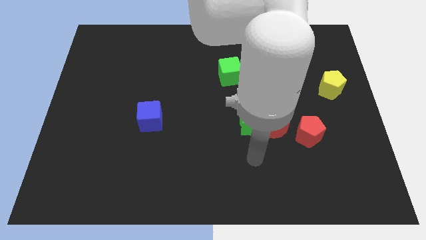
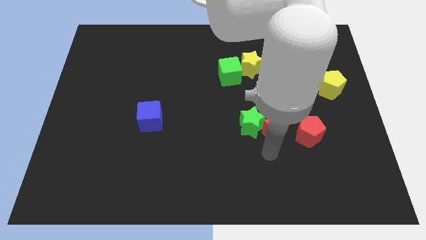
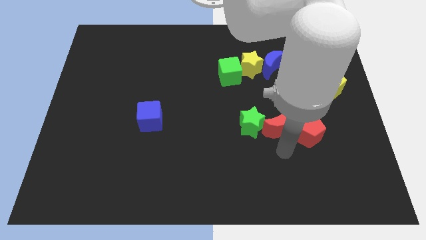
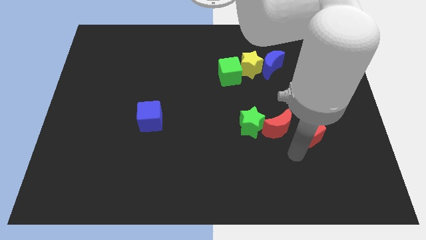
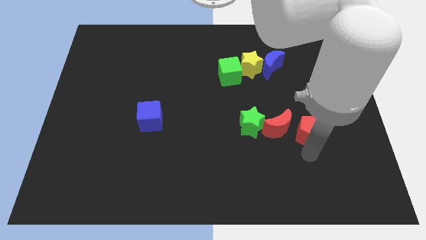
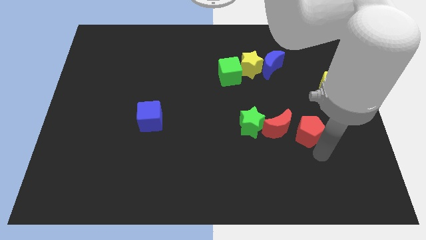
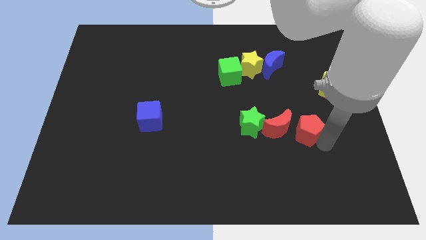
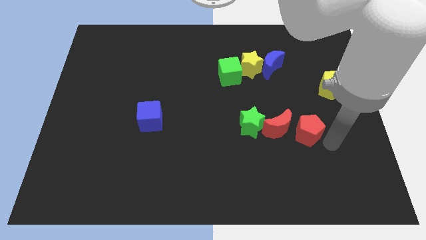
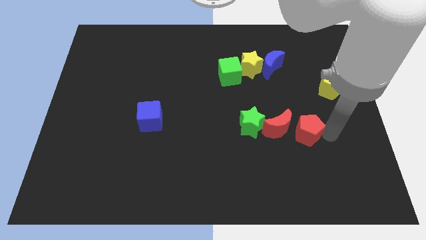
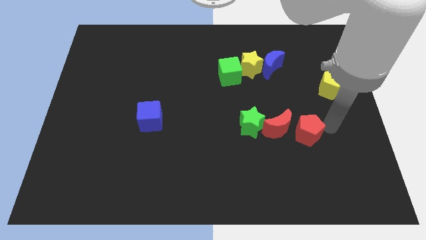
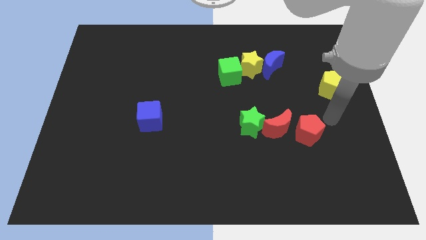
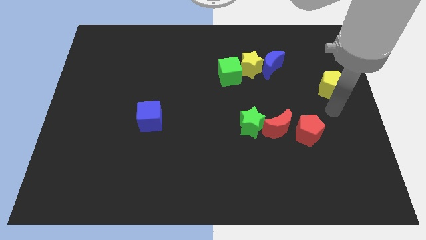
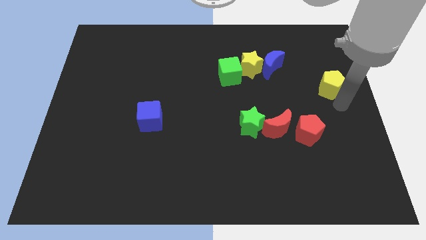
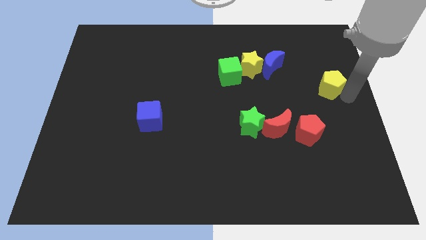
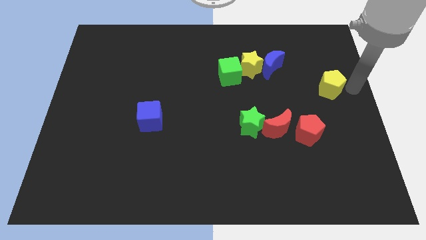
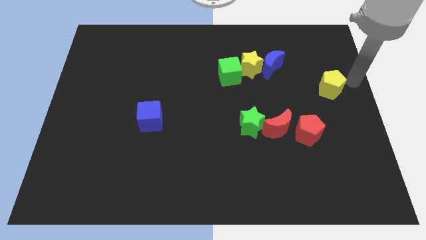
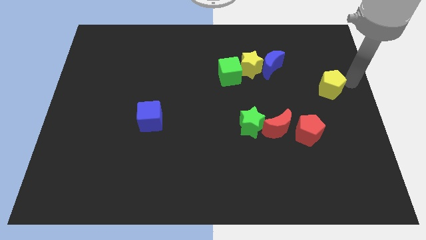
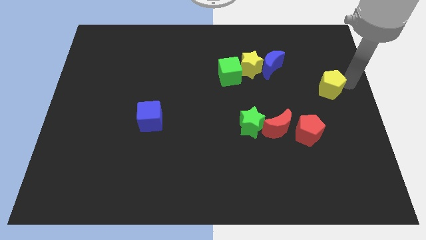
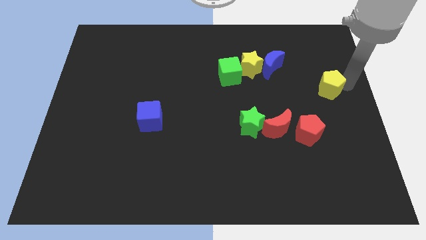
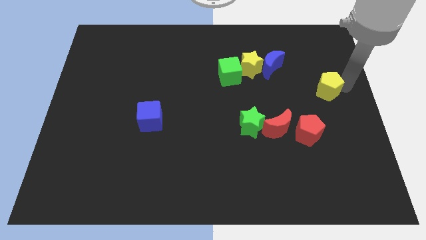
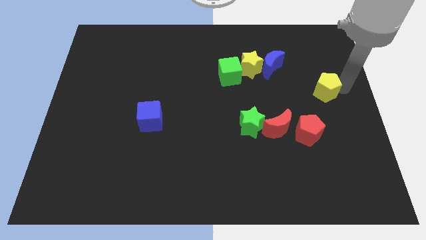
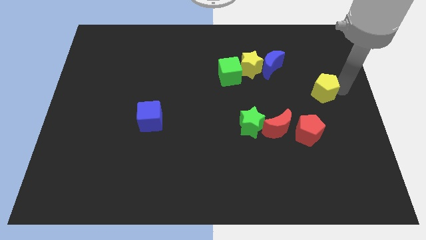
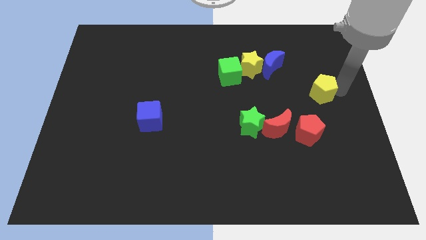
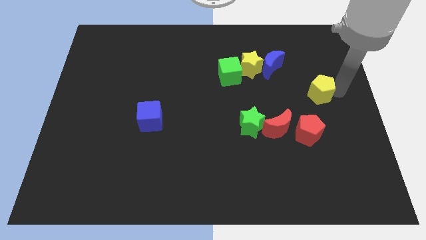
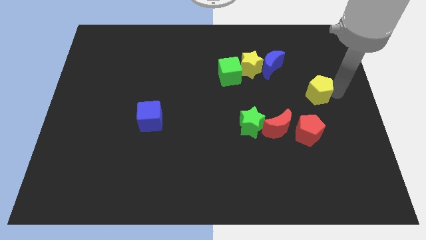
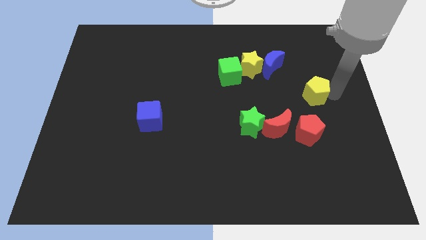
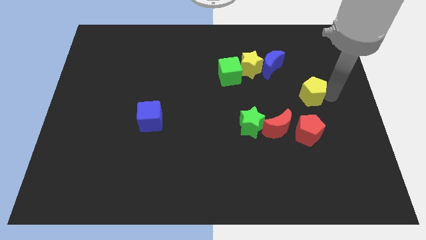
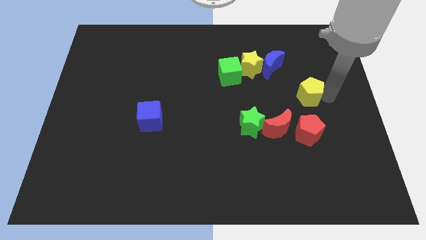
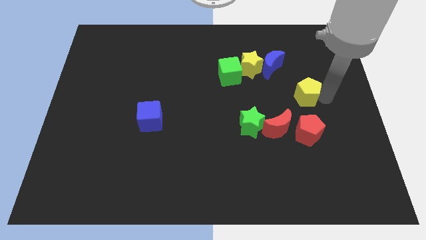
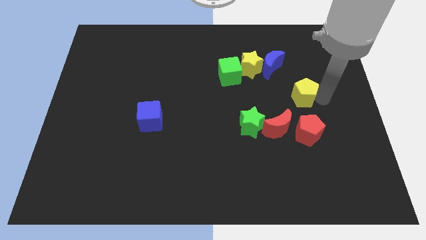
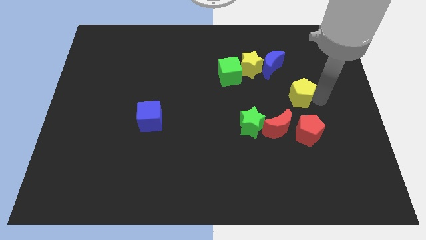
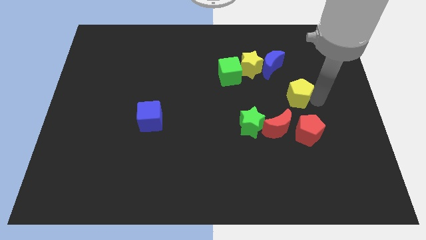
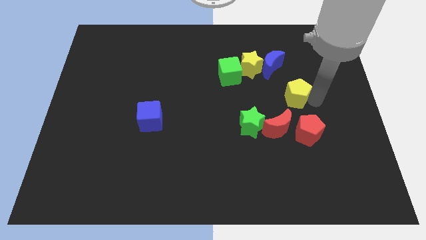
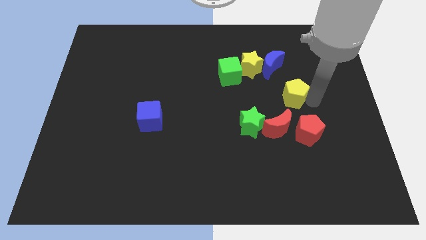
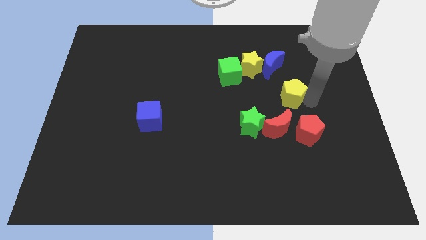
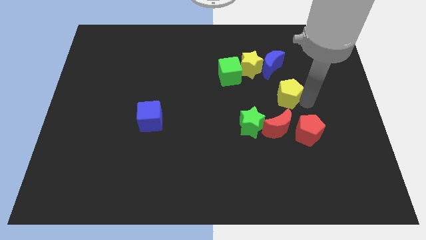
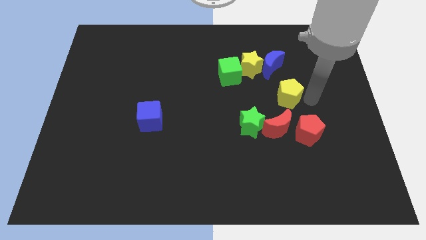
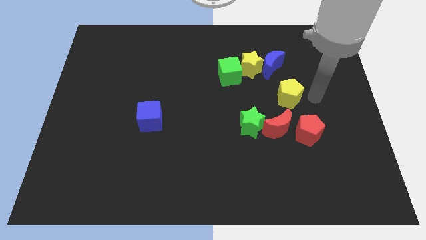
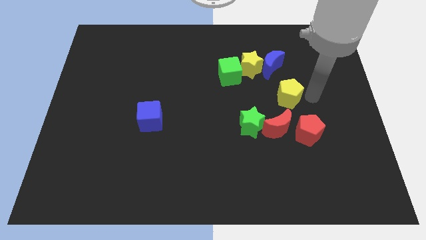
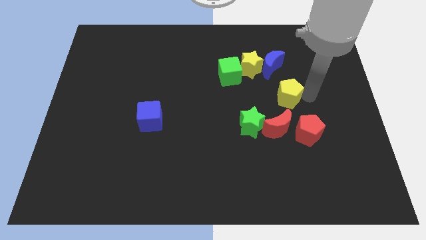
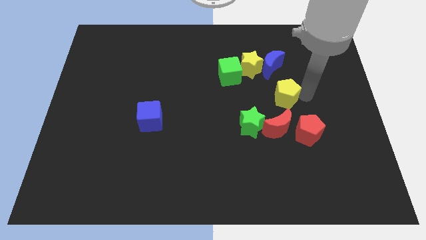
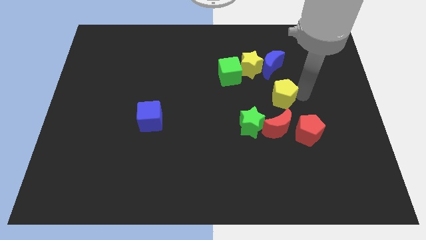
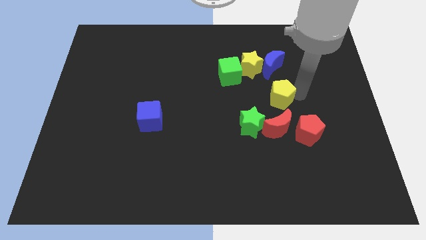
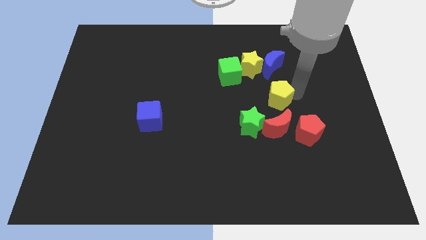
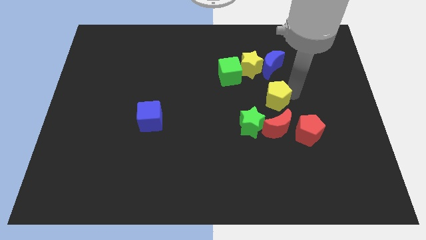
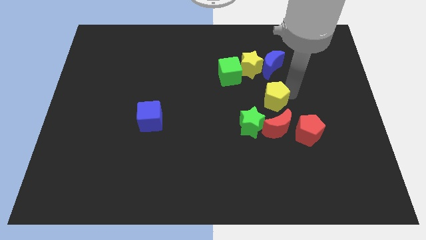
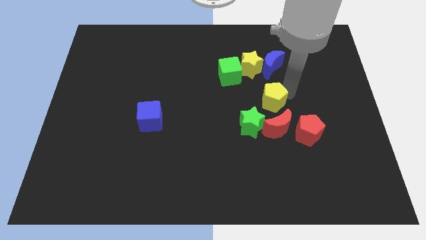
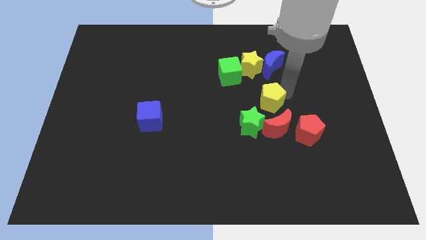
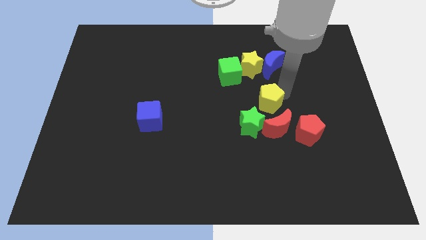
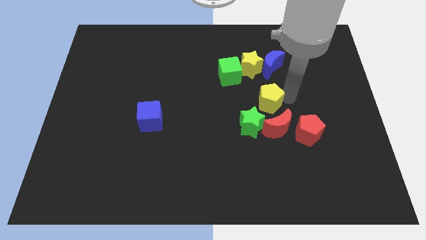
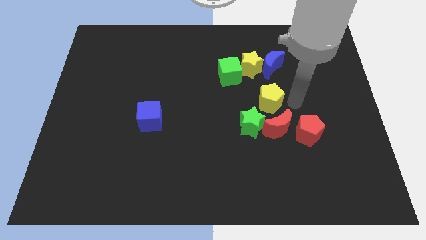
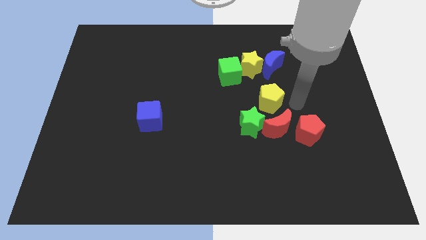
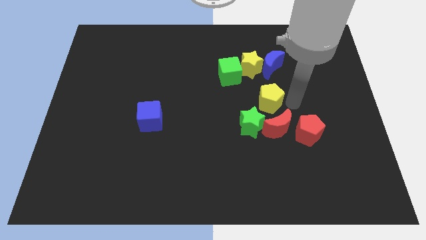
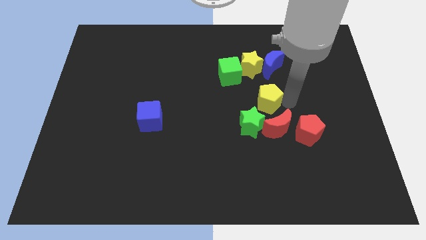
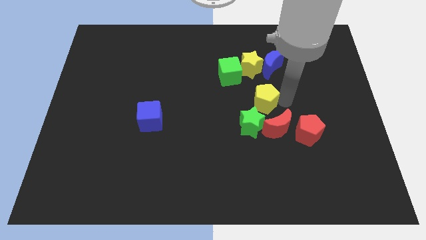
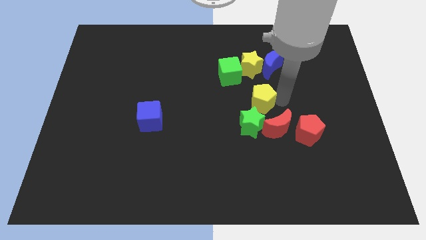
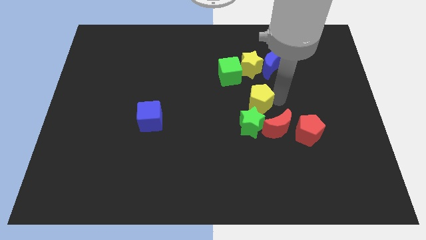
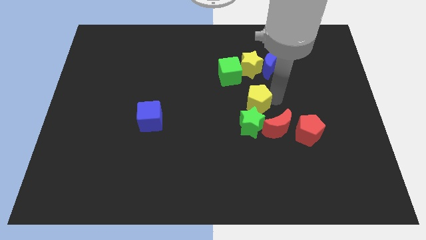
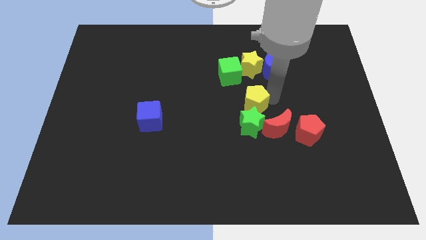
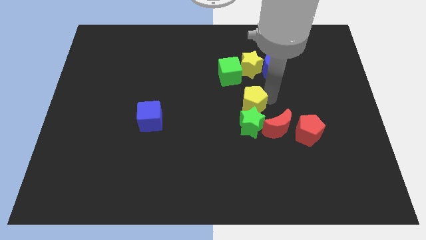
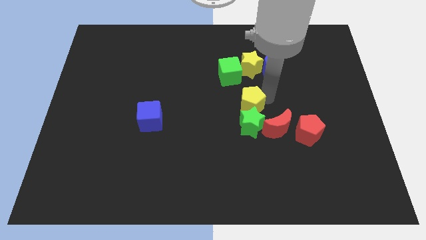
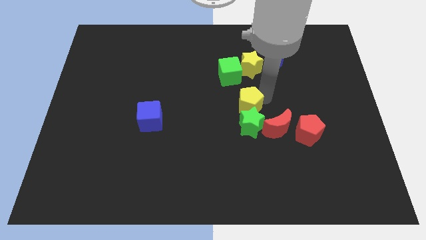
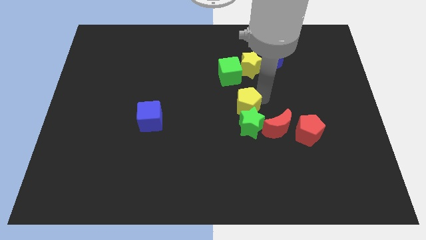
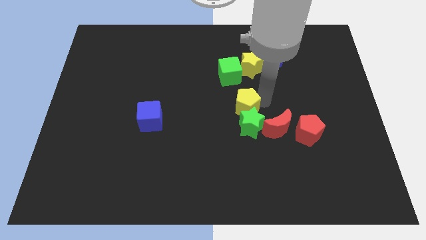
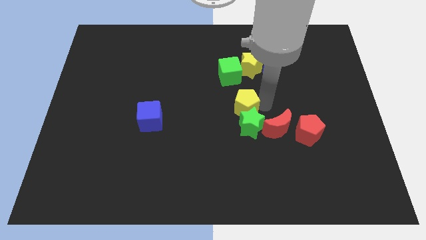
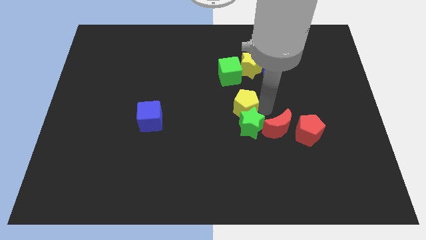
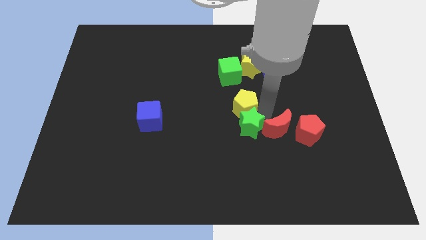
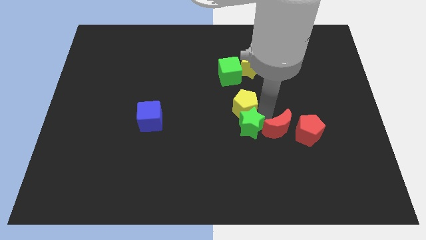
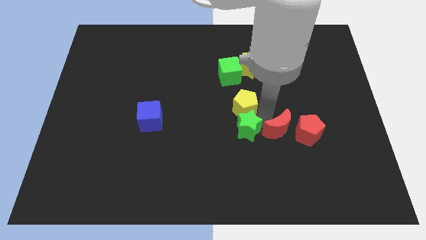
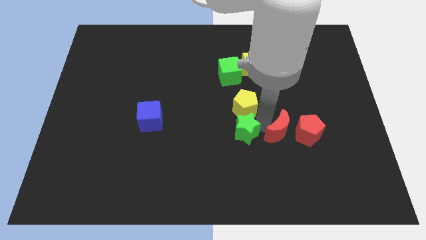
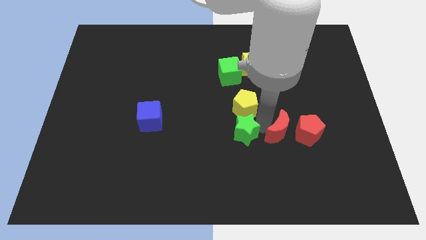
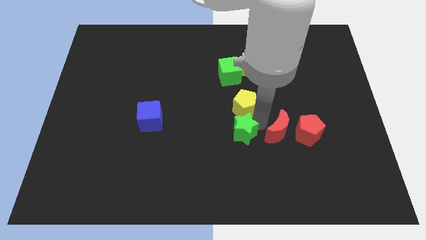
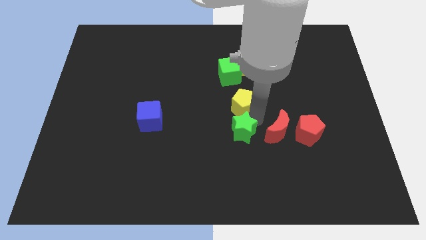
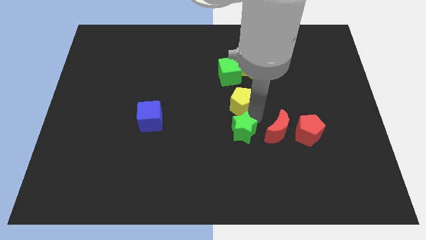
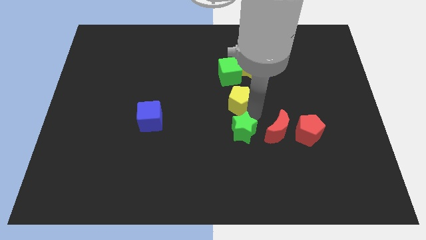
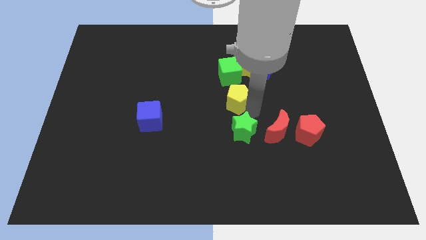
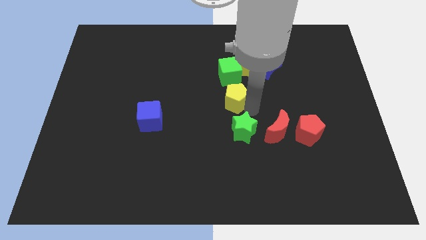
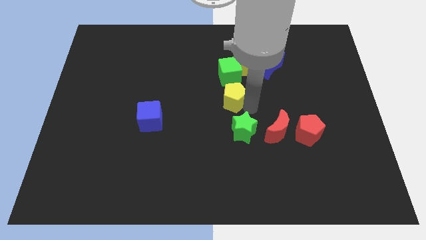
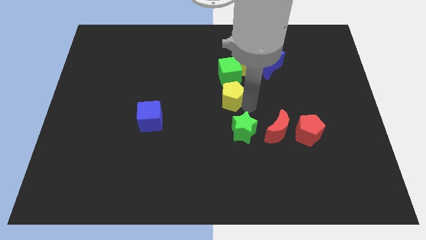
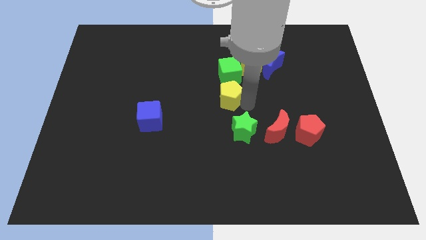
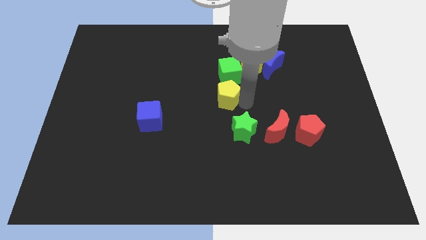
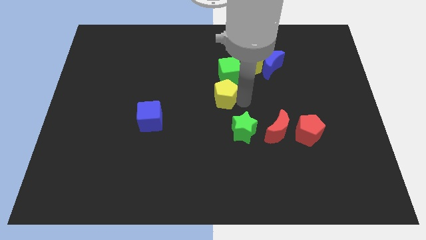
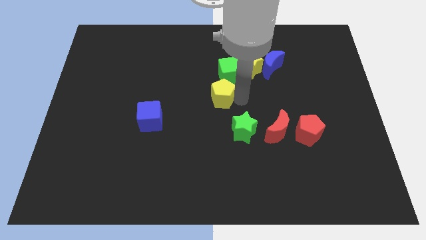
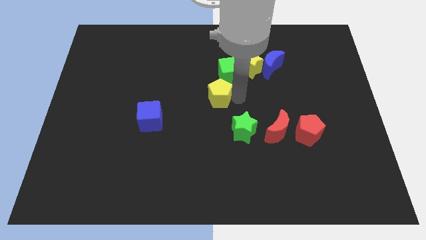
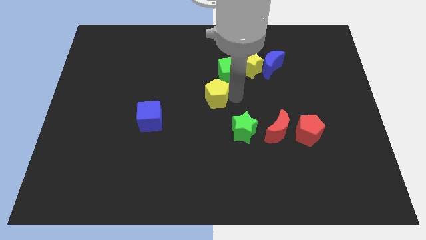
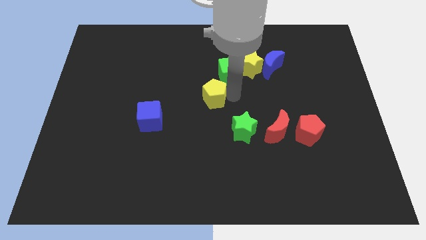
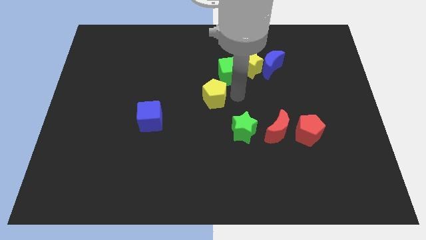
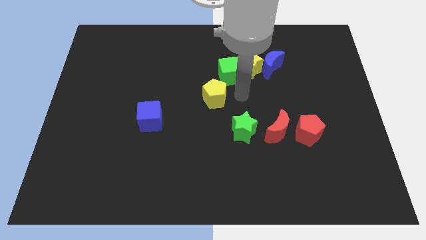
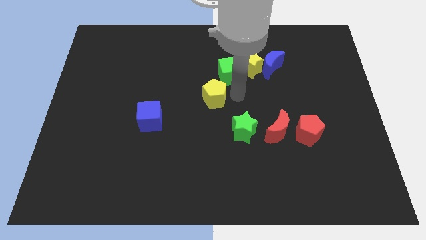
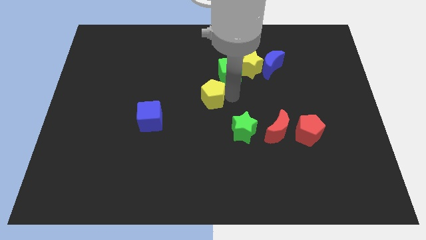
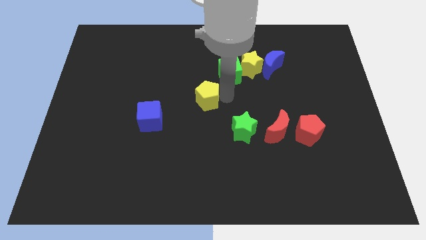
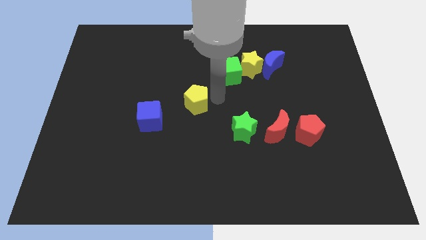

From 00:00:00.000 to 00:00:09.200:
push the yellow pentagon to the top right side of the blue cube
